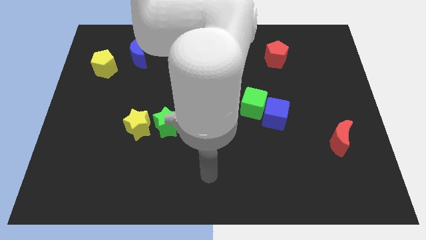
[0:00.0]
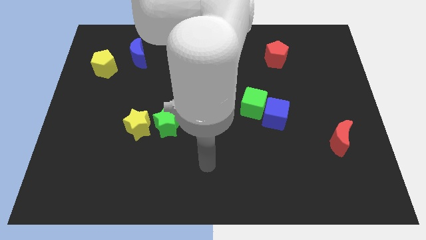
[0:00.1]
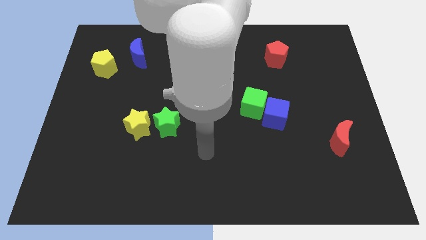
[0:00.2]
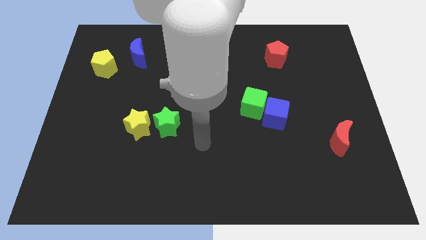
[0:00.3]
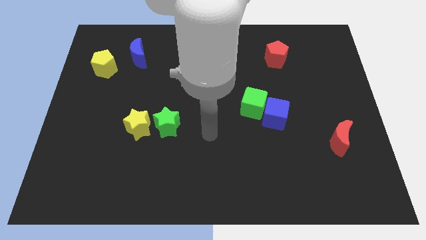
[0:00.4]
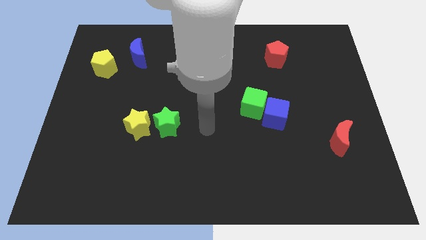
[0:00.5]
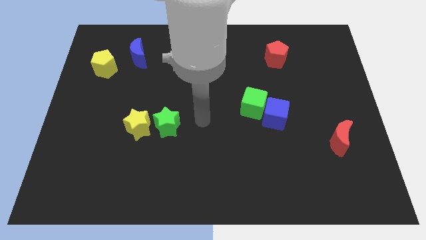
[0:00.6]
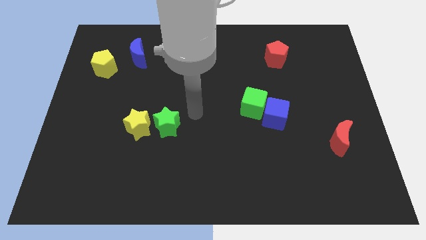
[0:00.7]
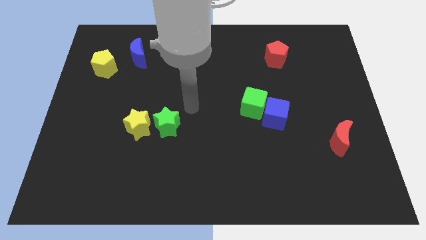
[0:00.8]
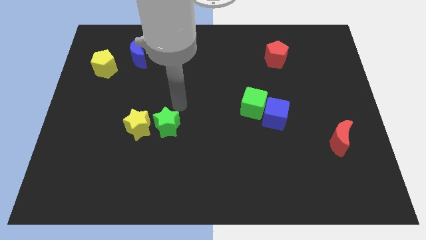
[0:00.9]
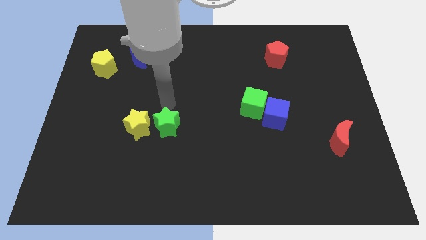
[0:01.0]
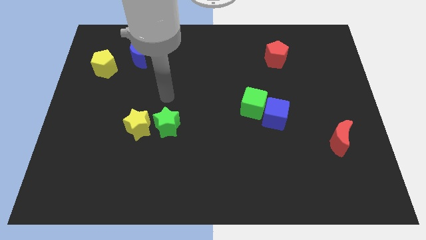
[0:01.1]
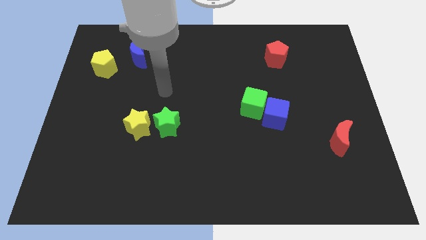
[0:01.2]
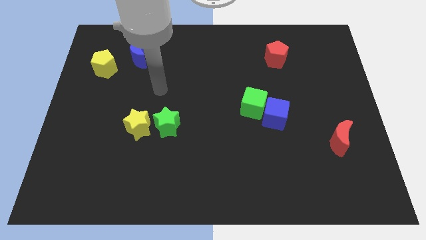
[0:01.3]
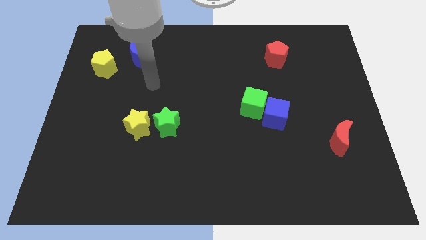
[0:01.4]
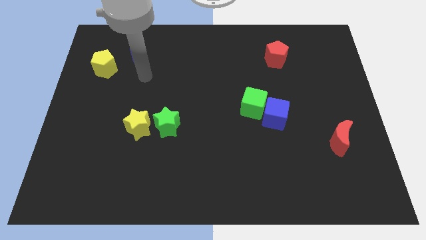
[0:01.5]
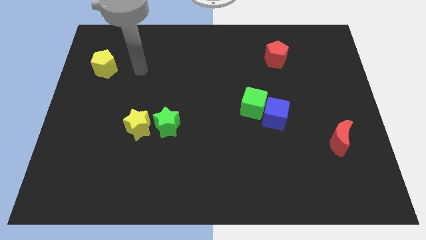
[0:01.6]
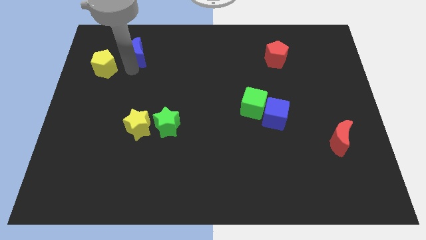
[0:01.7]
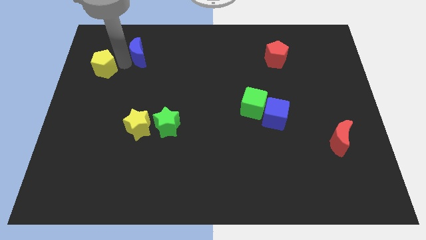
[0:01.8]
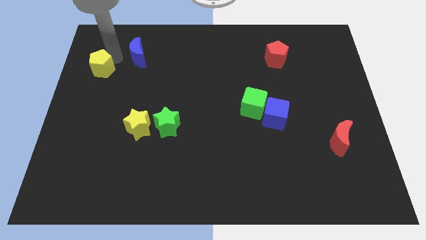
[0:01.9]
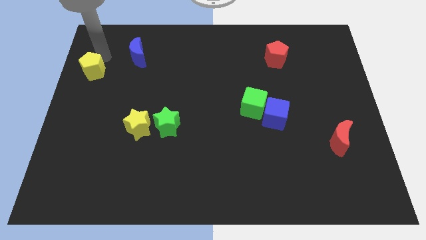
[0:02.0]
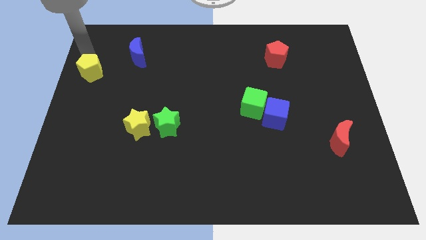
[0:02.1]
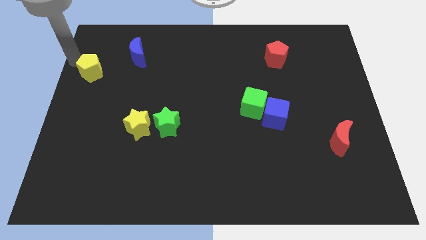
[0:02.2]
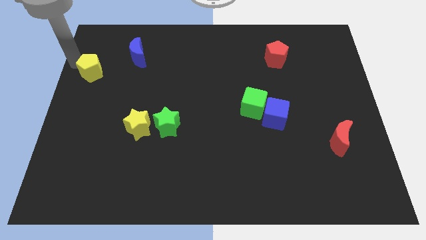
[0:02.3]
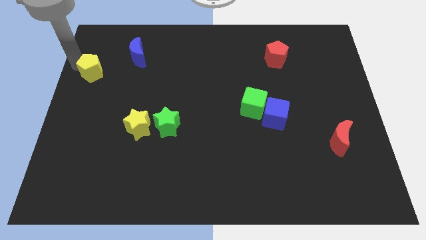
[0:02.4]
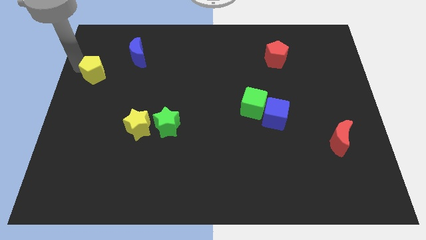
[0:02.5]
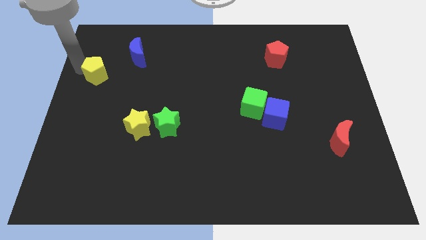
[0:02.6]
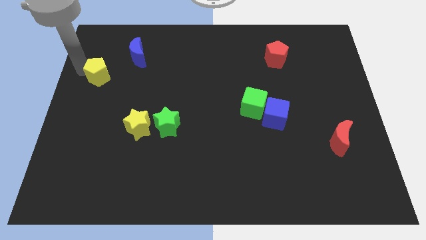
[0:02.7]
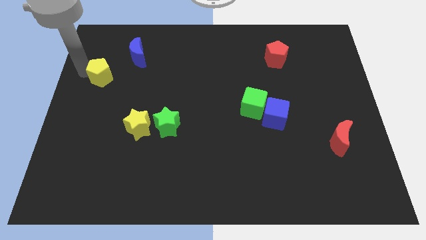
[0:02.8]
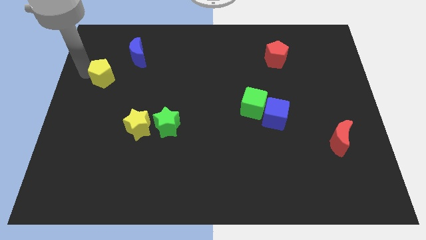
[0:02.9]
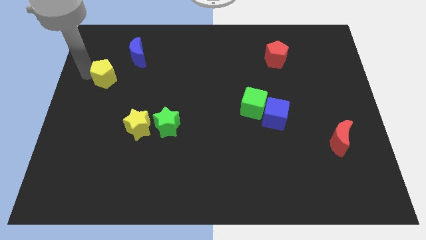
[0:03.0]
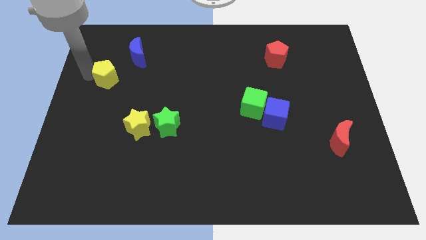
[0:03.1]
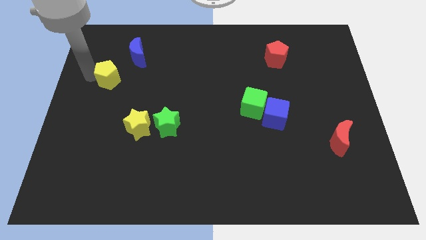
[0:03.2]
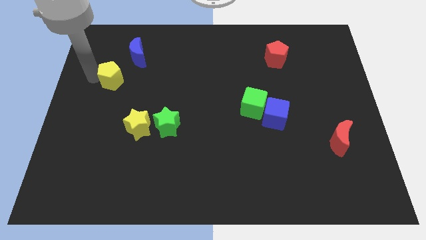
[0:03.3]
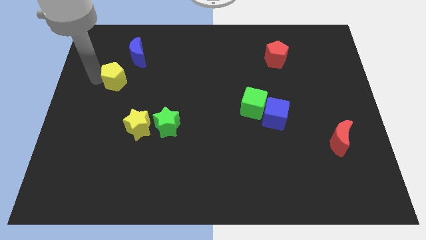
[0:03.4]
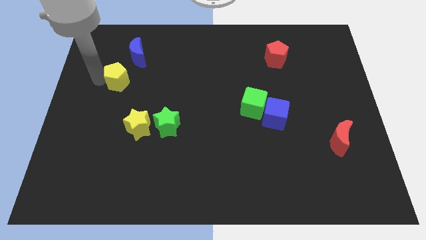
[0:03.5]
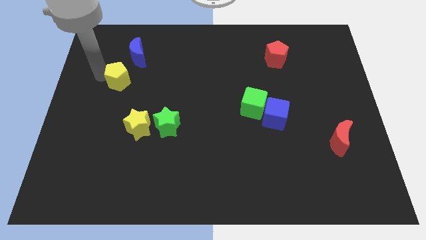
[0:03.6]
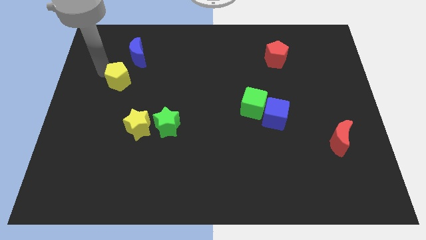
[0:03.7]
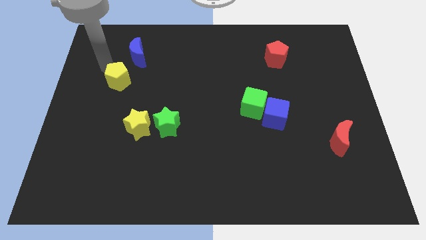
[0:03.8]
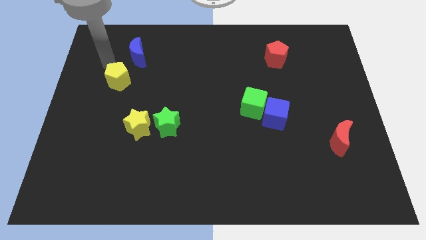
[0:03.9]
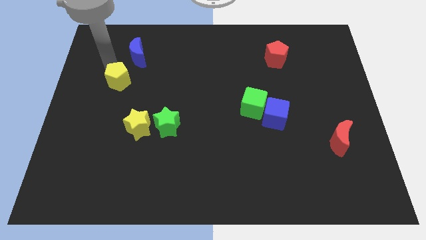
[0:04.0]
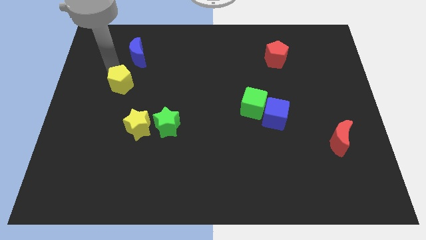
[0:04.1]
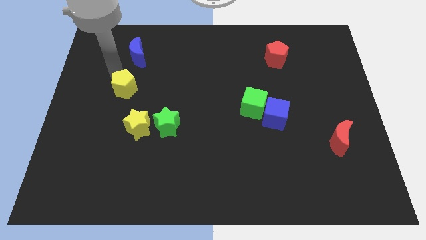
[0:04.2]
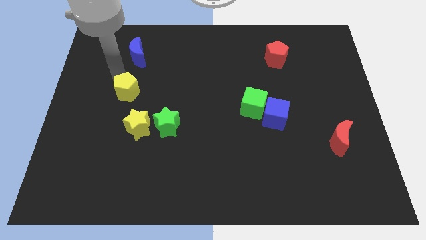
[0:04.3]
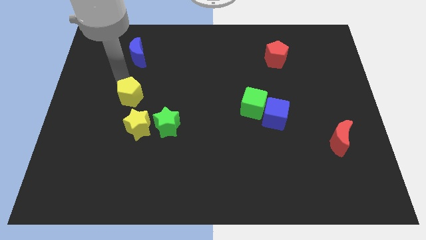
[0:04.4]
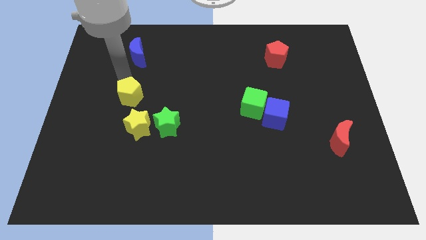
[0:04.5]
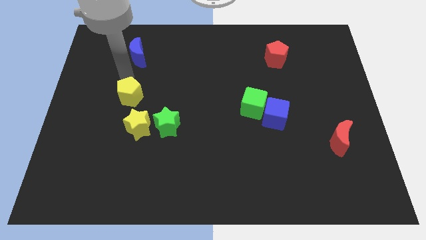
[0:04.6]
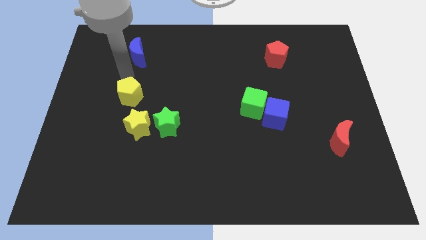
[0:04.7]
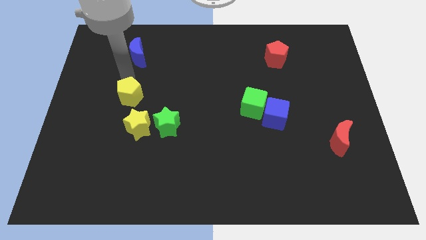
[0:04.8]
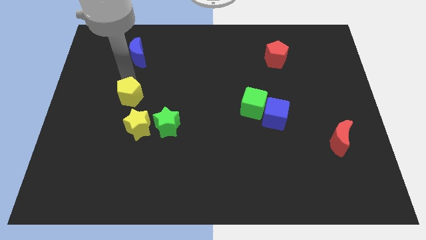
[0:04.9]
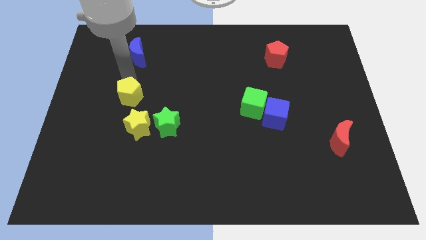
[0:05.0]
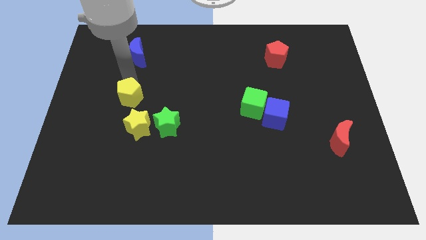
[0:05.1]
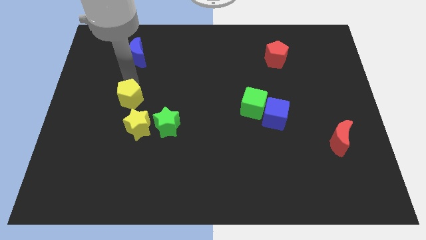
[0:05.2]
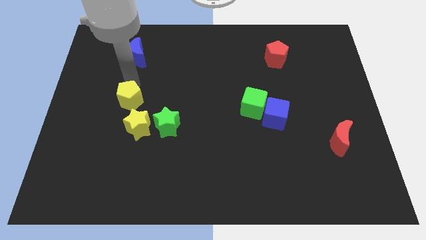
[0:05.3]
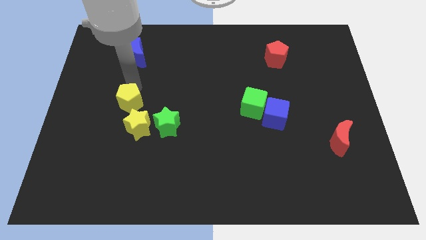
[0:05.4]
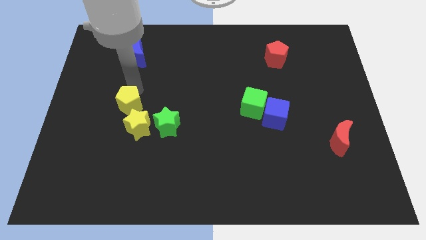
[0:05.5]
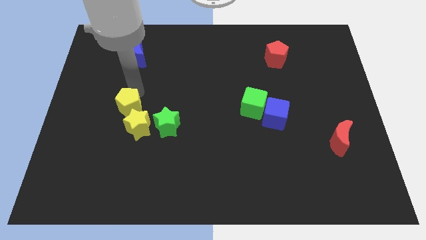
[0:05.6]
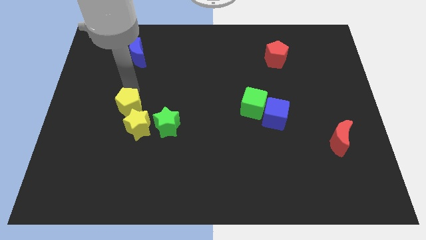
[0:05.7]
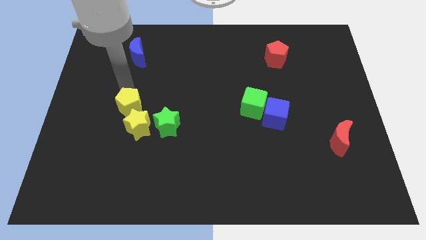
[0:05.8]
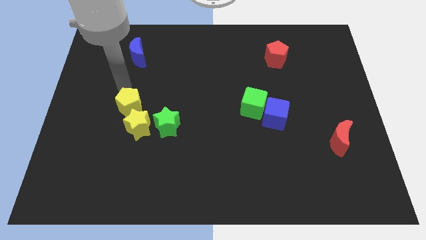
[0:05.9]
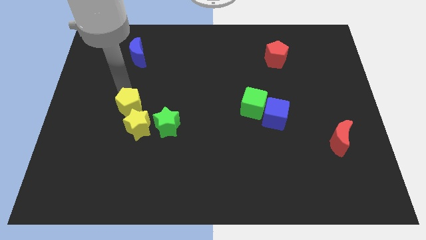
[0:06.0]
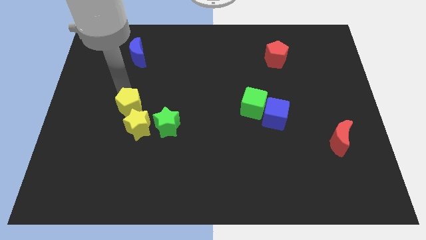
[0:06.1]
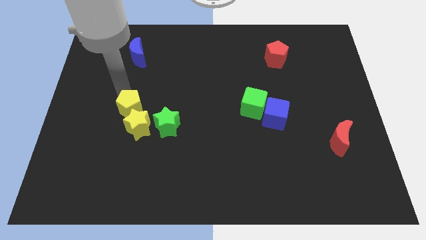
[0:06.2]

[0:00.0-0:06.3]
move the yellow pentagon close to the yellow star

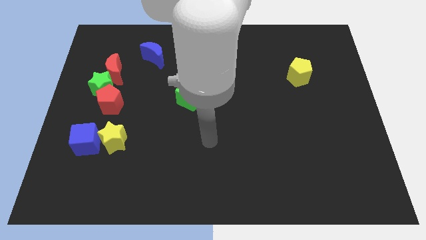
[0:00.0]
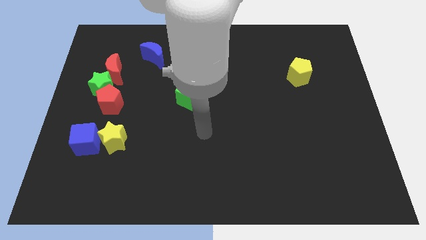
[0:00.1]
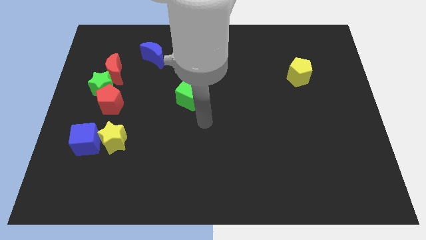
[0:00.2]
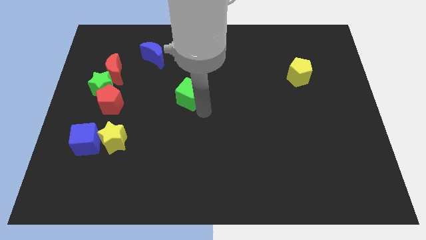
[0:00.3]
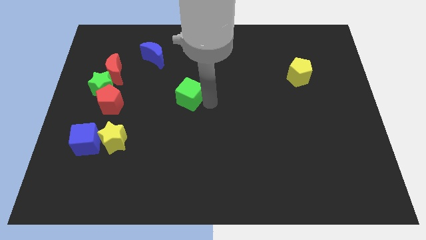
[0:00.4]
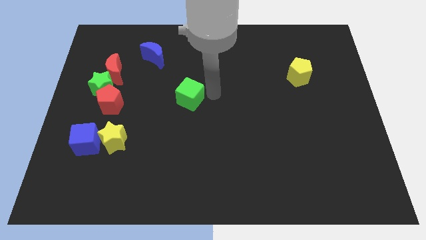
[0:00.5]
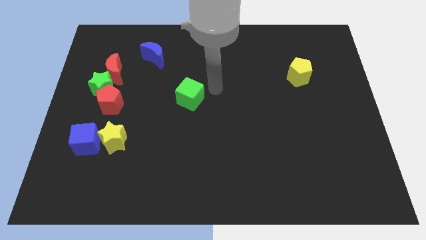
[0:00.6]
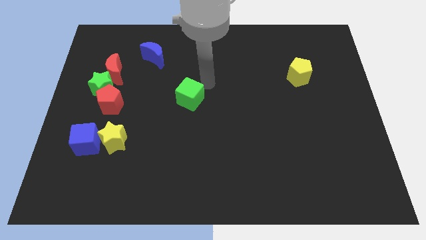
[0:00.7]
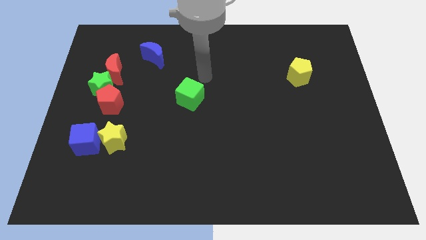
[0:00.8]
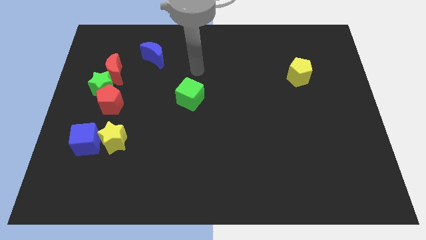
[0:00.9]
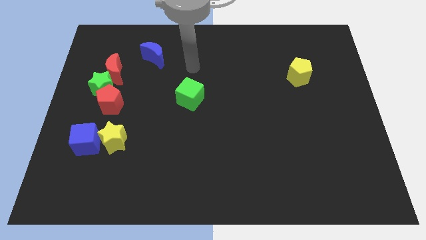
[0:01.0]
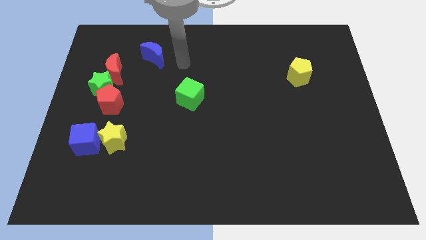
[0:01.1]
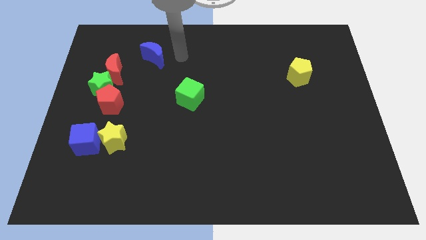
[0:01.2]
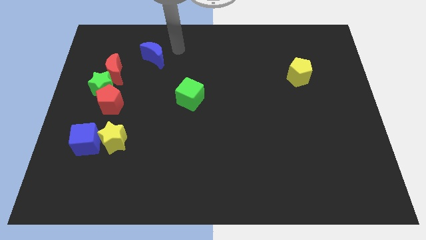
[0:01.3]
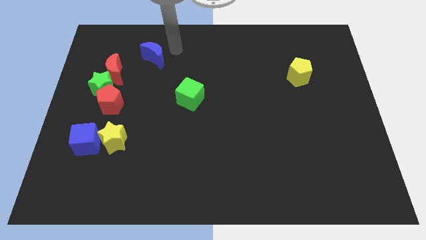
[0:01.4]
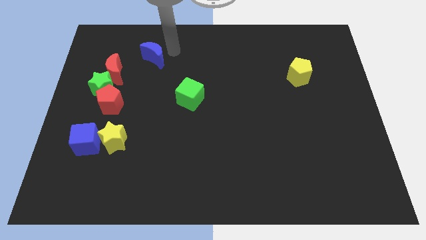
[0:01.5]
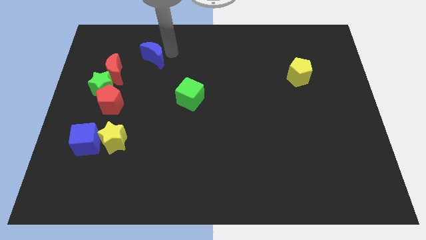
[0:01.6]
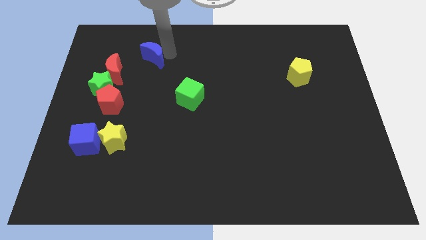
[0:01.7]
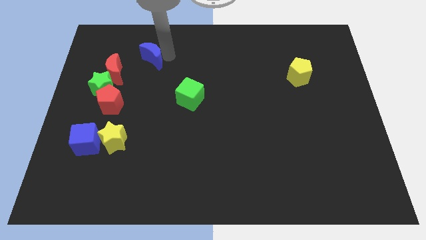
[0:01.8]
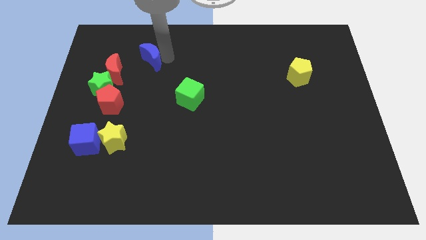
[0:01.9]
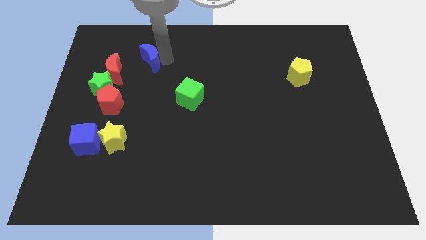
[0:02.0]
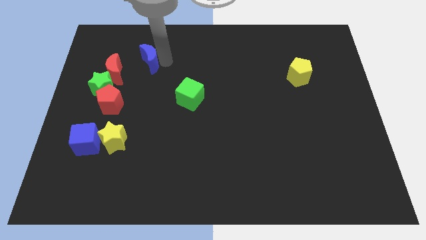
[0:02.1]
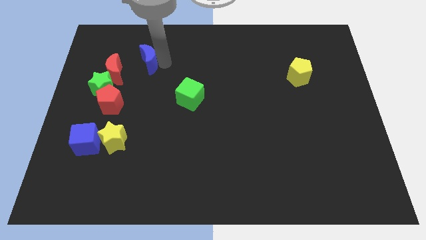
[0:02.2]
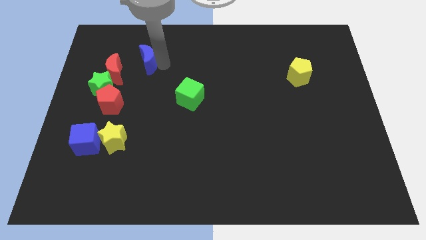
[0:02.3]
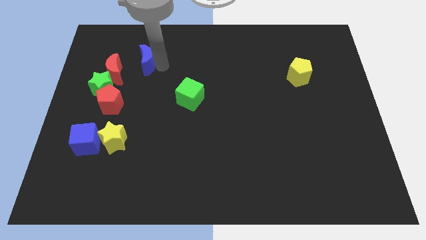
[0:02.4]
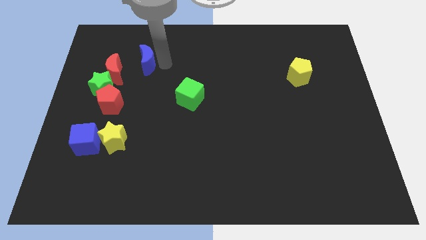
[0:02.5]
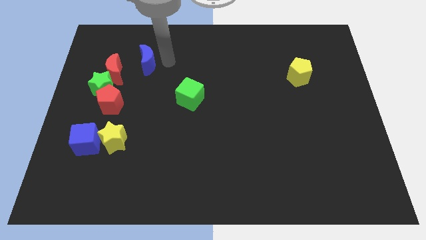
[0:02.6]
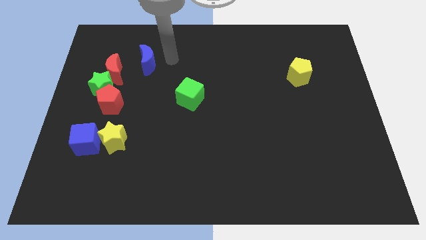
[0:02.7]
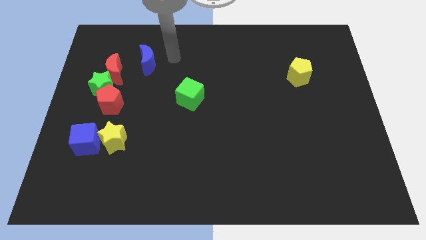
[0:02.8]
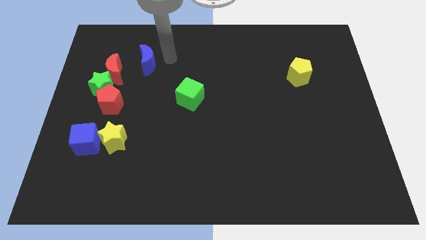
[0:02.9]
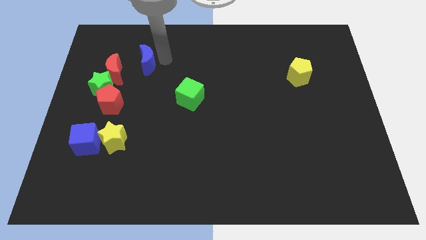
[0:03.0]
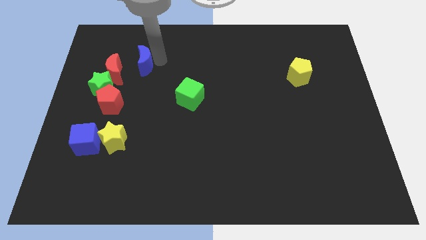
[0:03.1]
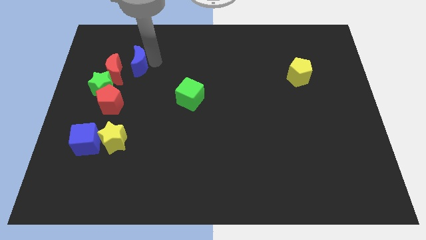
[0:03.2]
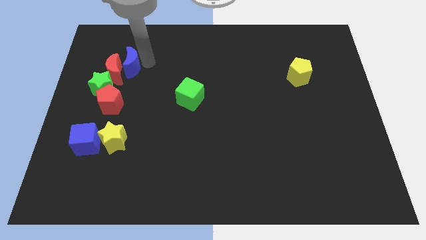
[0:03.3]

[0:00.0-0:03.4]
slide the blue moon close to the red moon
